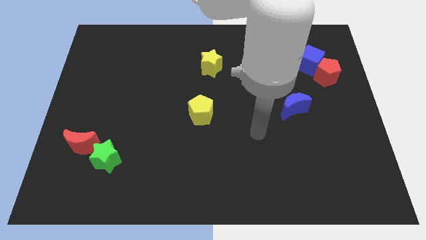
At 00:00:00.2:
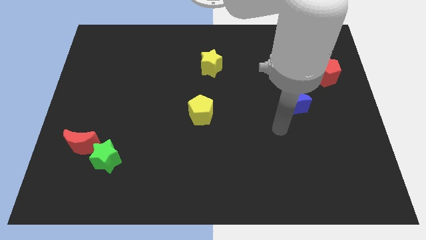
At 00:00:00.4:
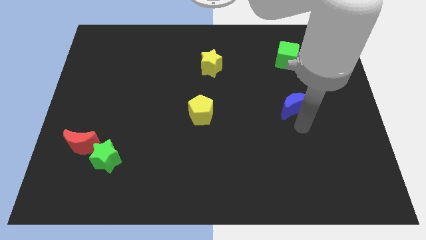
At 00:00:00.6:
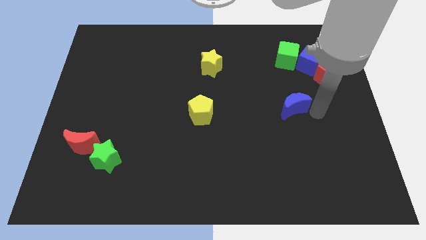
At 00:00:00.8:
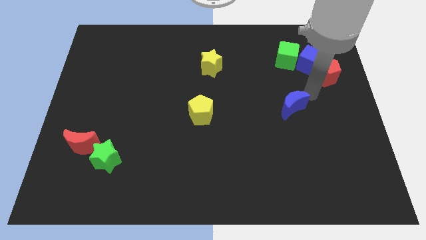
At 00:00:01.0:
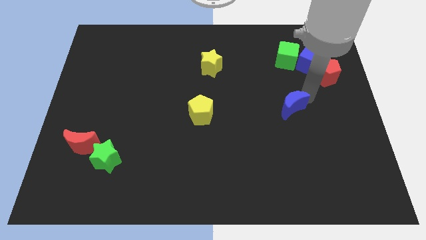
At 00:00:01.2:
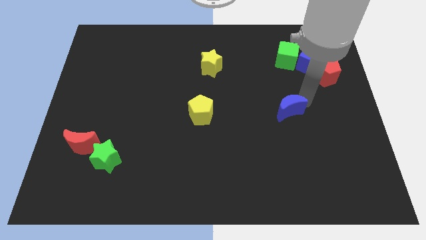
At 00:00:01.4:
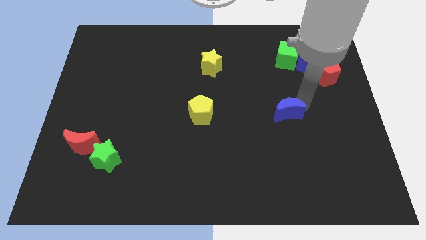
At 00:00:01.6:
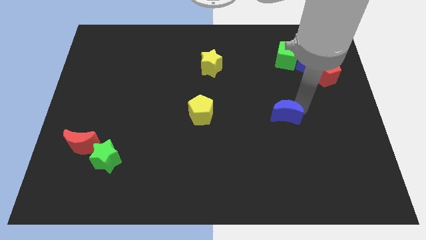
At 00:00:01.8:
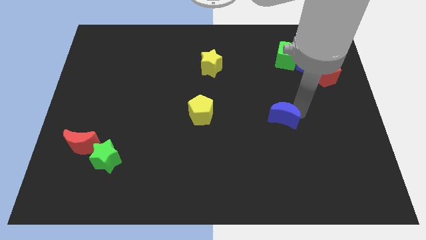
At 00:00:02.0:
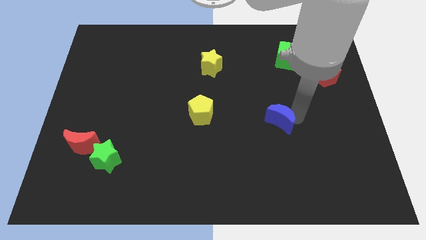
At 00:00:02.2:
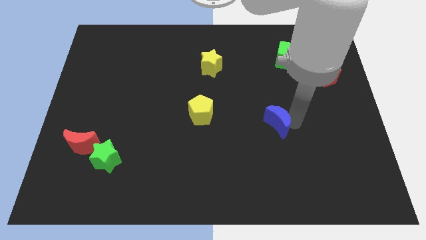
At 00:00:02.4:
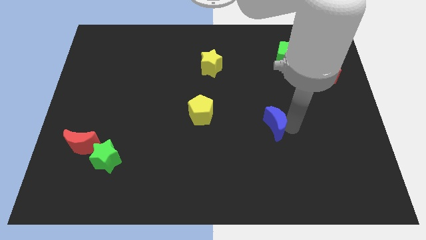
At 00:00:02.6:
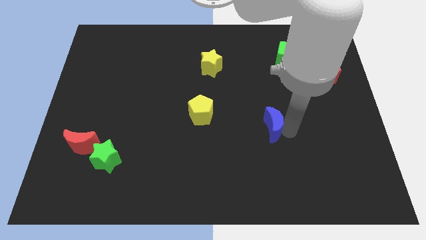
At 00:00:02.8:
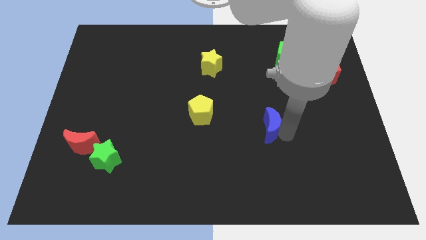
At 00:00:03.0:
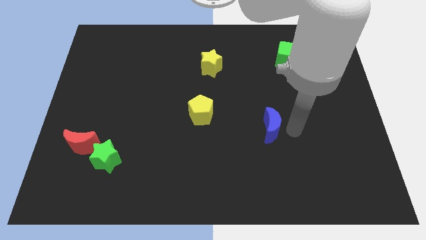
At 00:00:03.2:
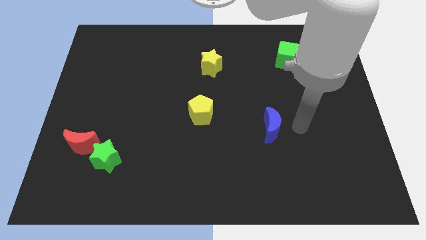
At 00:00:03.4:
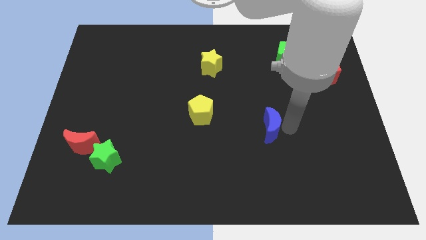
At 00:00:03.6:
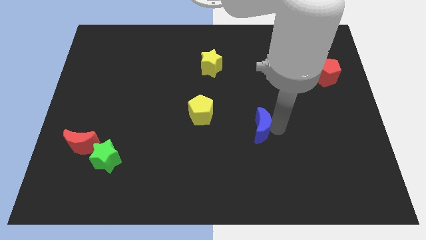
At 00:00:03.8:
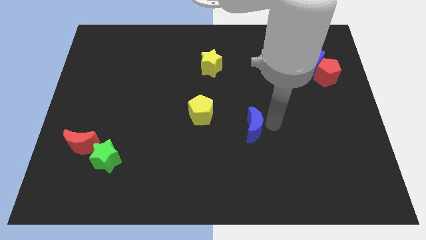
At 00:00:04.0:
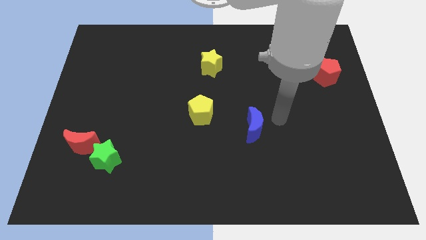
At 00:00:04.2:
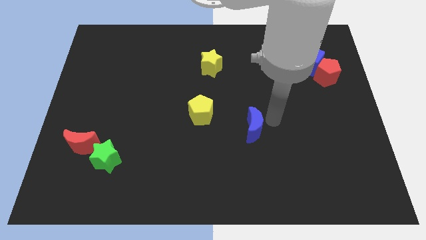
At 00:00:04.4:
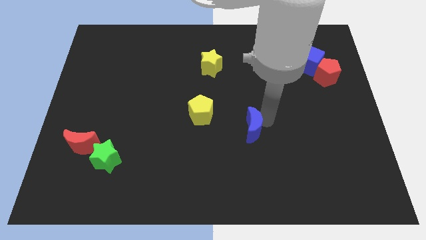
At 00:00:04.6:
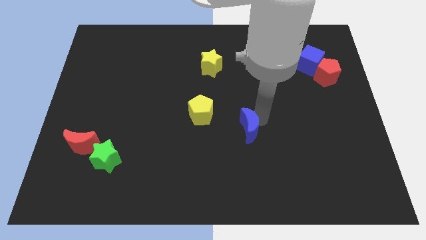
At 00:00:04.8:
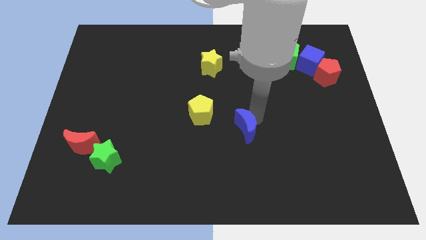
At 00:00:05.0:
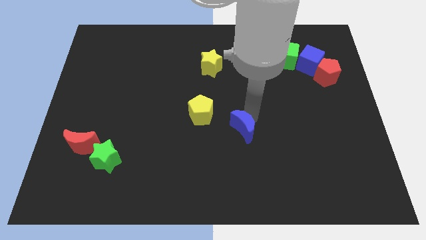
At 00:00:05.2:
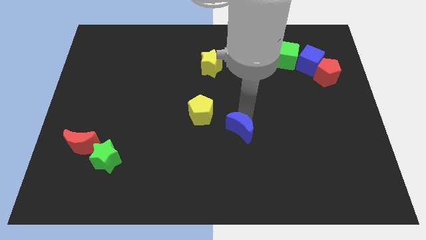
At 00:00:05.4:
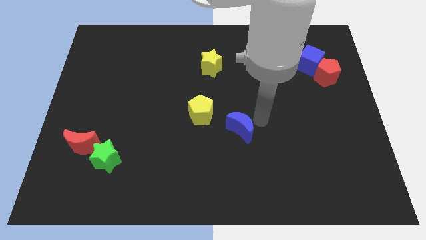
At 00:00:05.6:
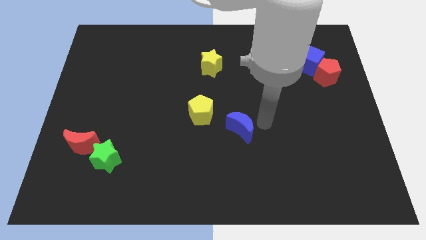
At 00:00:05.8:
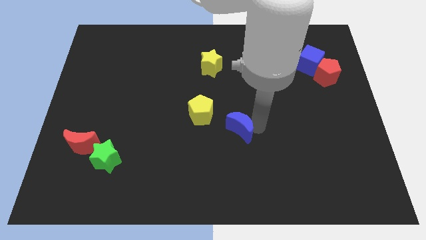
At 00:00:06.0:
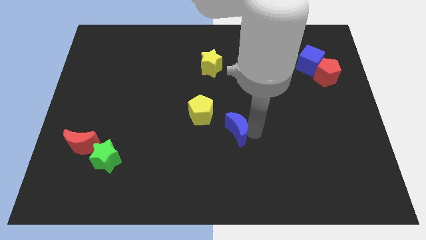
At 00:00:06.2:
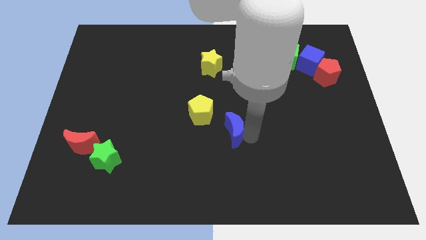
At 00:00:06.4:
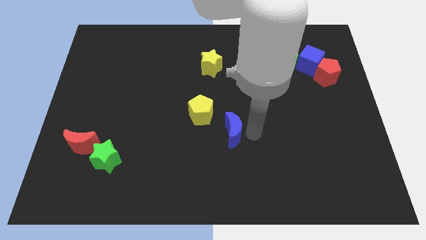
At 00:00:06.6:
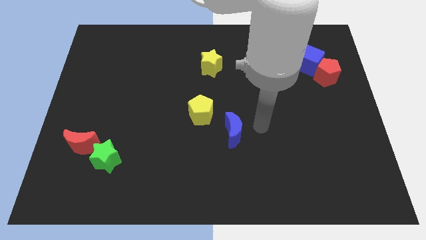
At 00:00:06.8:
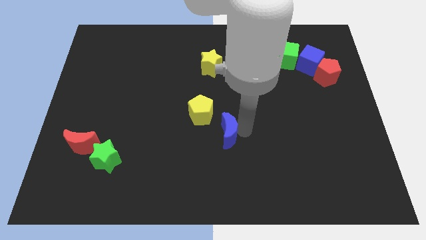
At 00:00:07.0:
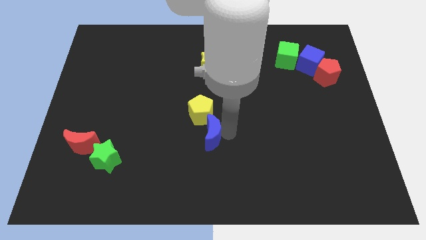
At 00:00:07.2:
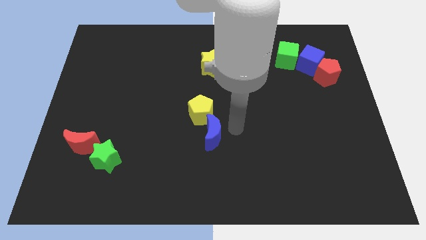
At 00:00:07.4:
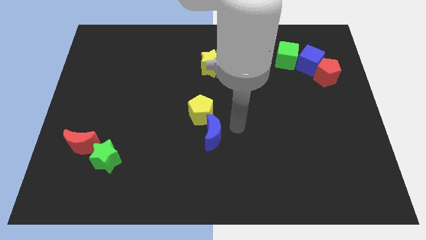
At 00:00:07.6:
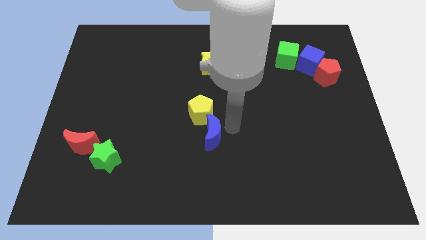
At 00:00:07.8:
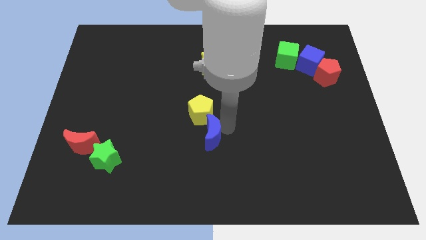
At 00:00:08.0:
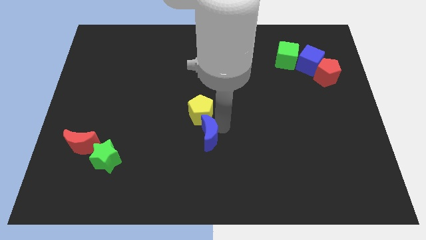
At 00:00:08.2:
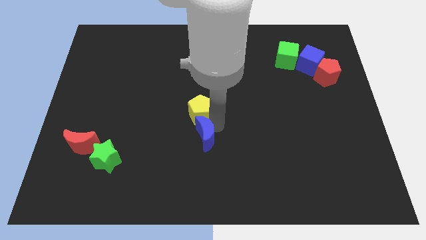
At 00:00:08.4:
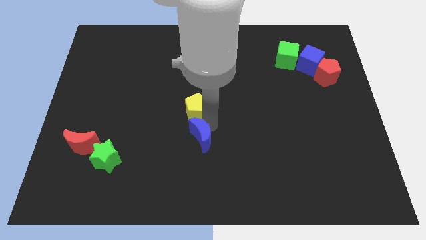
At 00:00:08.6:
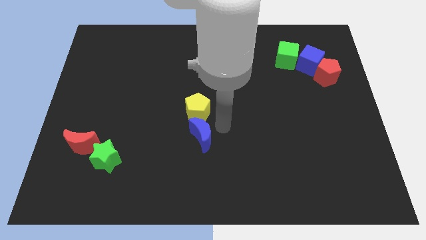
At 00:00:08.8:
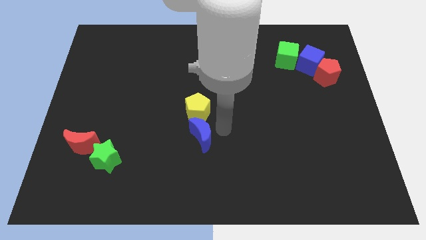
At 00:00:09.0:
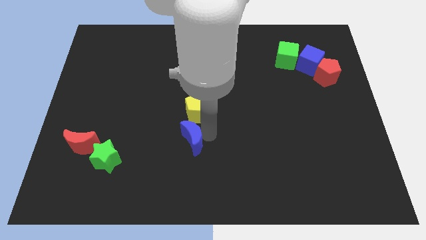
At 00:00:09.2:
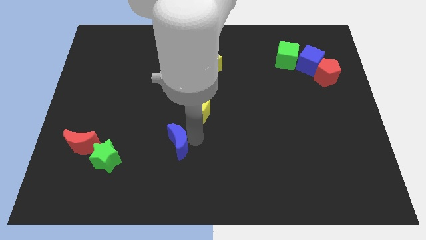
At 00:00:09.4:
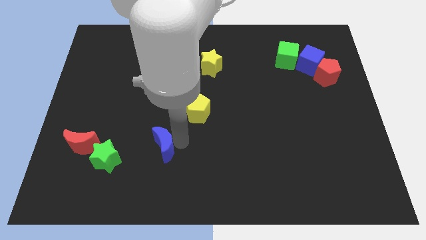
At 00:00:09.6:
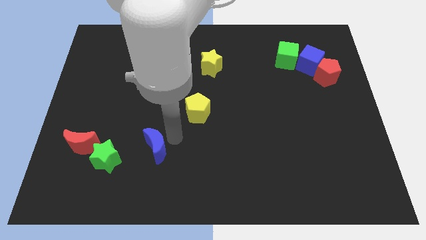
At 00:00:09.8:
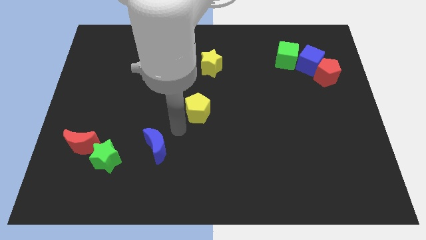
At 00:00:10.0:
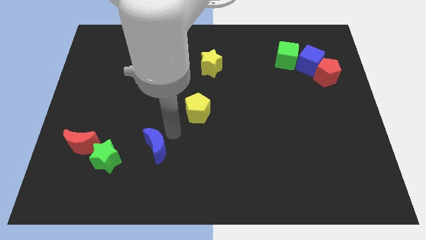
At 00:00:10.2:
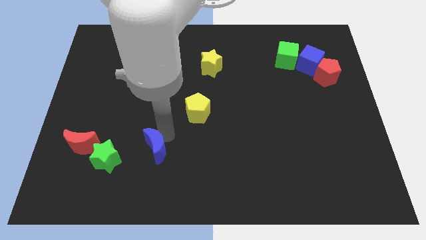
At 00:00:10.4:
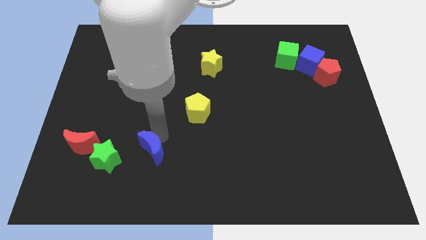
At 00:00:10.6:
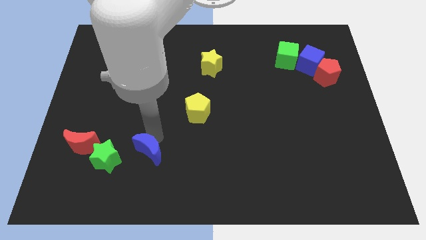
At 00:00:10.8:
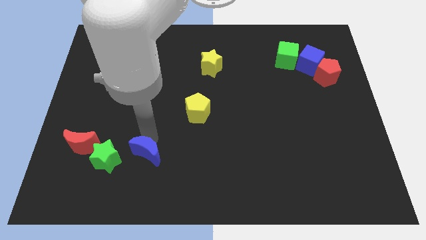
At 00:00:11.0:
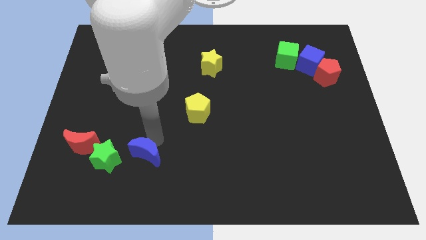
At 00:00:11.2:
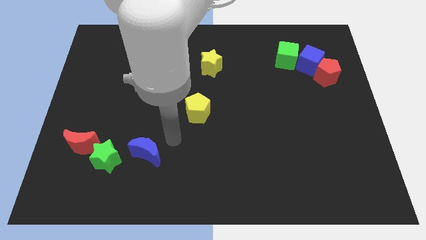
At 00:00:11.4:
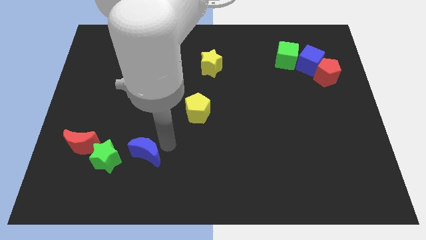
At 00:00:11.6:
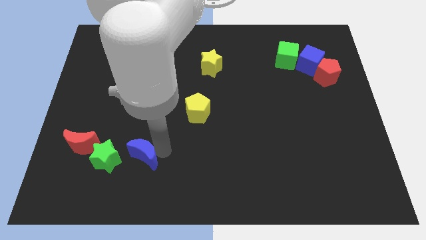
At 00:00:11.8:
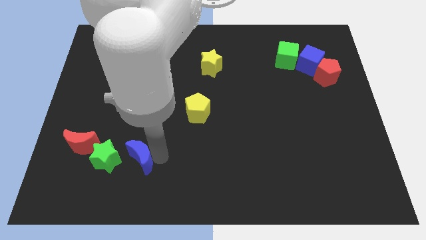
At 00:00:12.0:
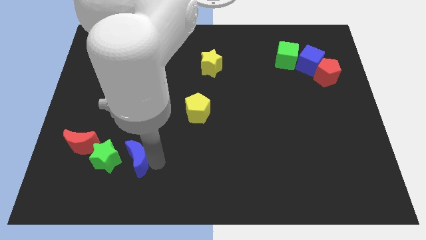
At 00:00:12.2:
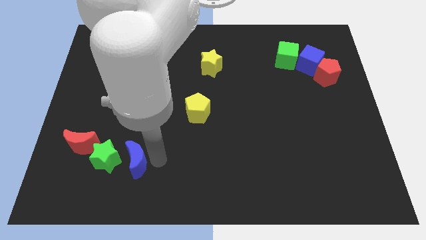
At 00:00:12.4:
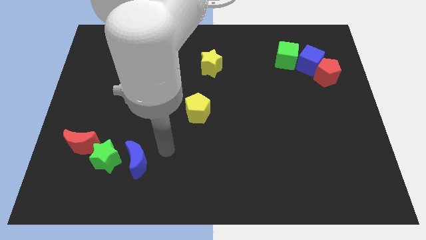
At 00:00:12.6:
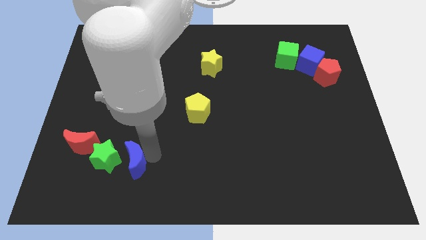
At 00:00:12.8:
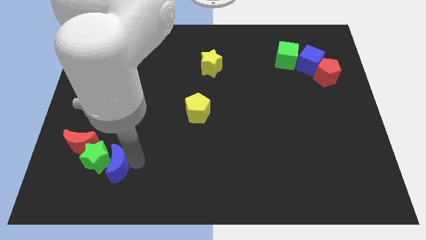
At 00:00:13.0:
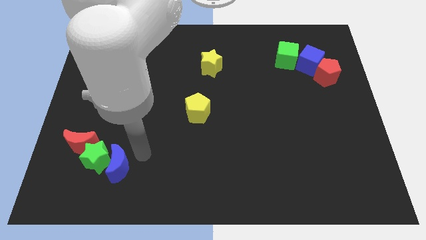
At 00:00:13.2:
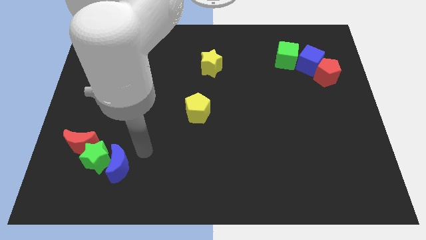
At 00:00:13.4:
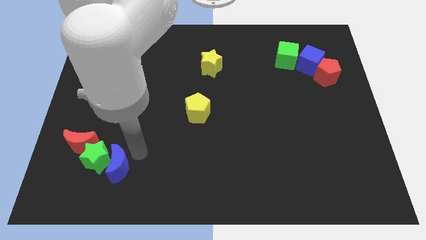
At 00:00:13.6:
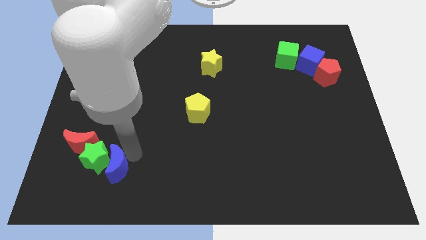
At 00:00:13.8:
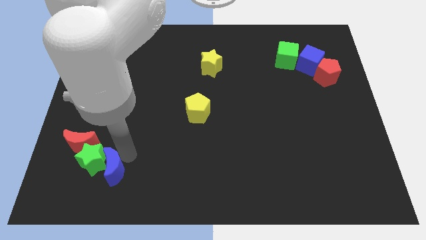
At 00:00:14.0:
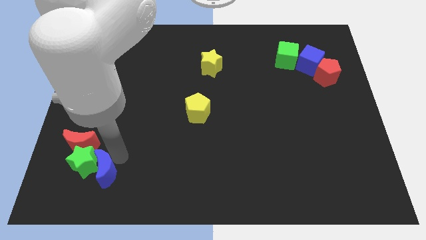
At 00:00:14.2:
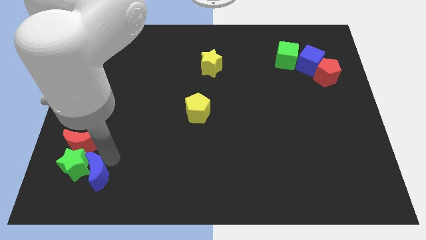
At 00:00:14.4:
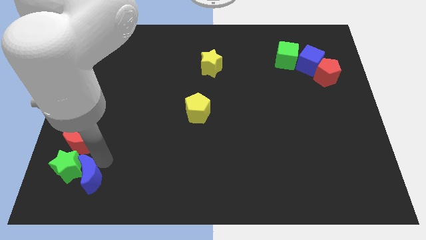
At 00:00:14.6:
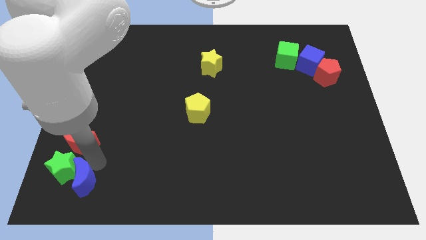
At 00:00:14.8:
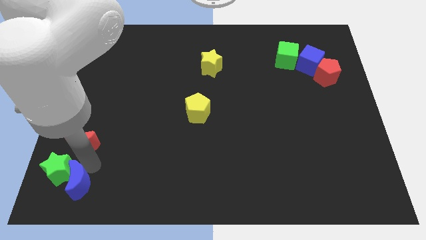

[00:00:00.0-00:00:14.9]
push the blue moon to the bottom left of the board
